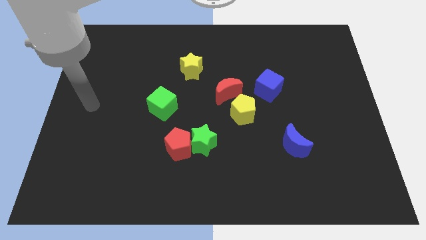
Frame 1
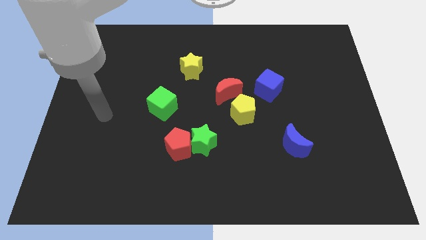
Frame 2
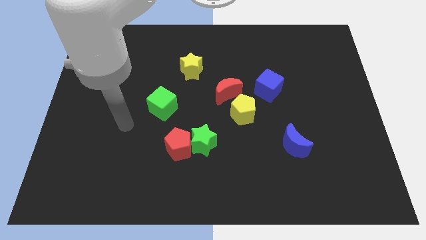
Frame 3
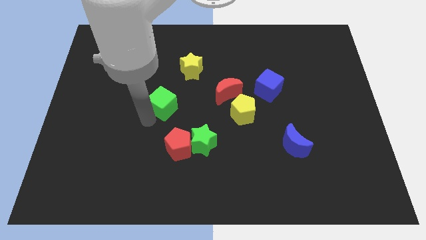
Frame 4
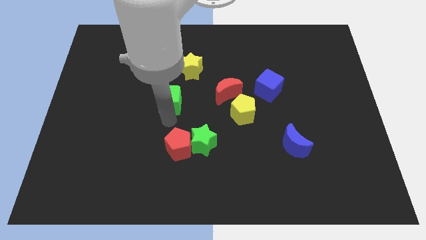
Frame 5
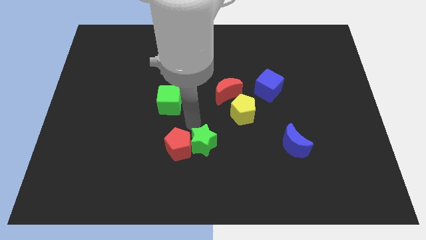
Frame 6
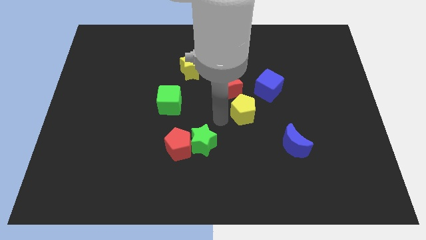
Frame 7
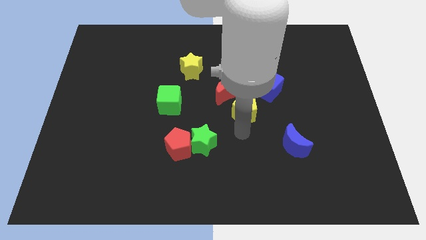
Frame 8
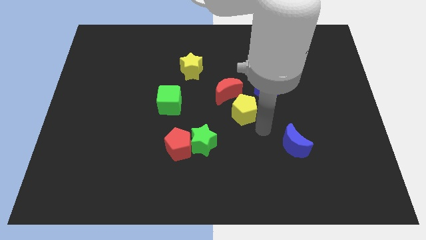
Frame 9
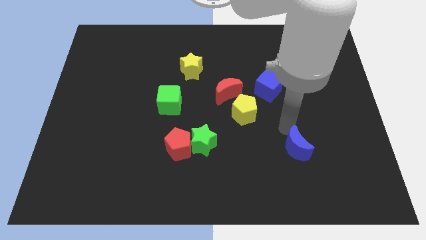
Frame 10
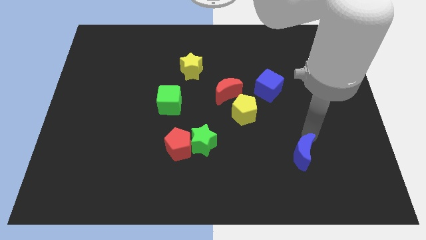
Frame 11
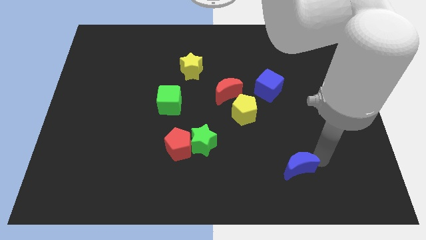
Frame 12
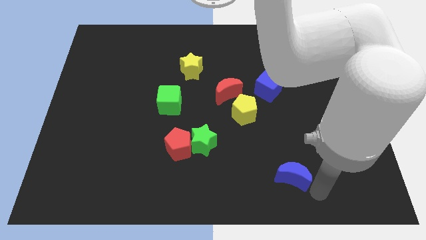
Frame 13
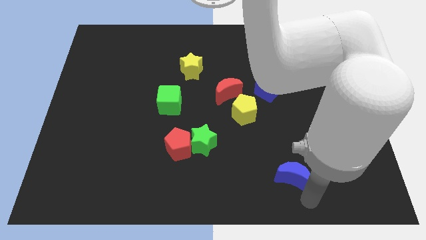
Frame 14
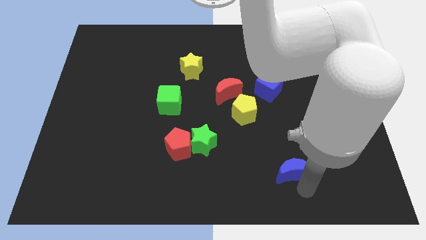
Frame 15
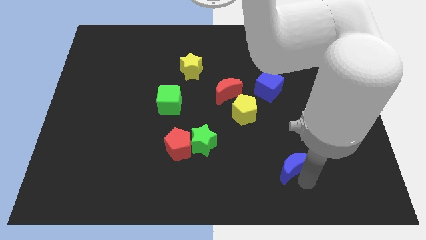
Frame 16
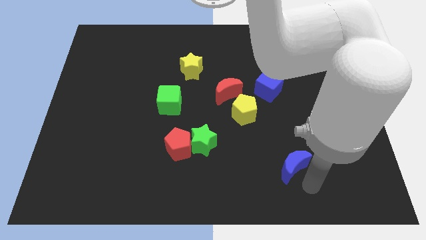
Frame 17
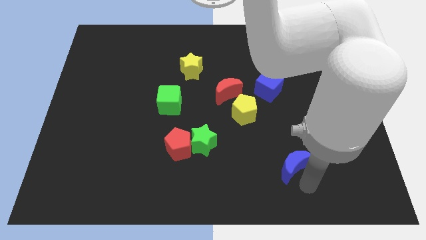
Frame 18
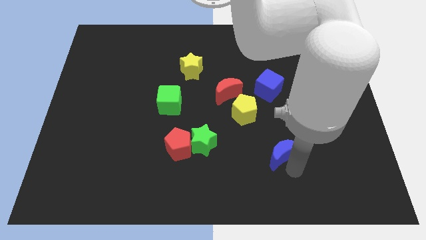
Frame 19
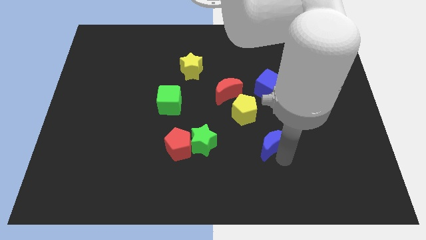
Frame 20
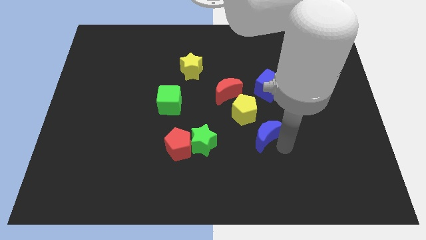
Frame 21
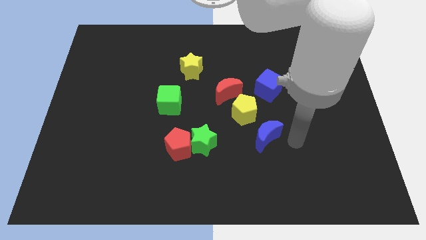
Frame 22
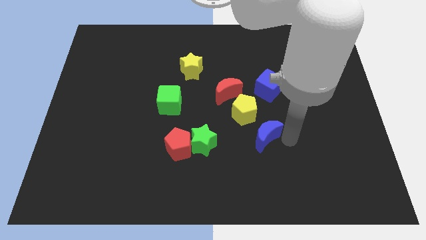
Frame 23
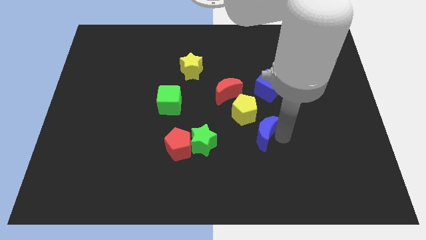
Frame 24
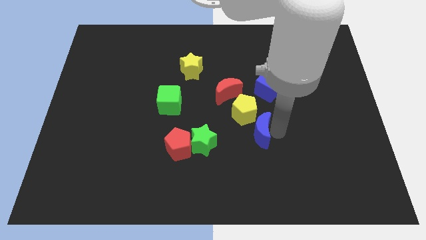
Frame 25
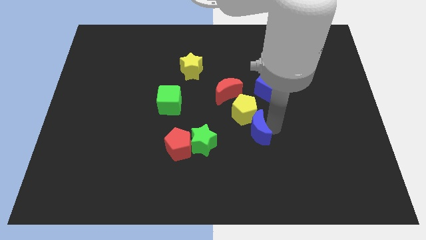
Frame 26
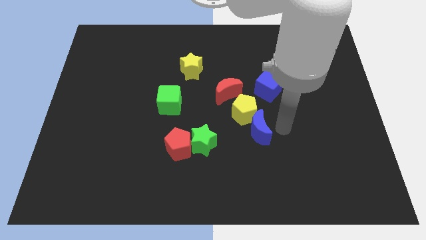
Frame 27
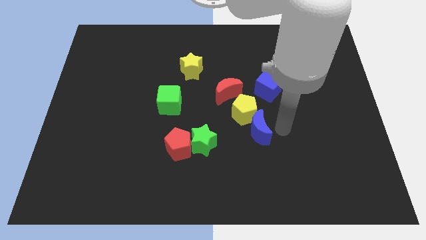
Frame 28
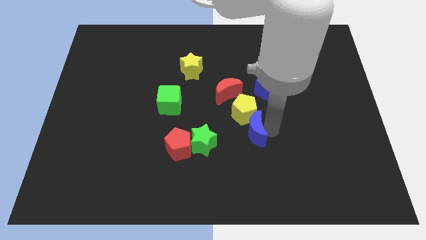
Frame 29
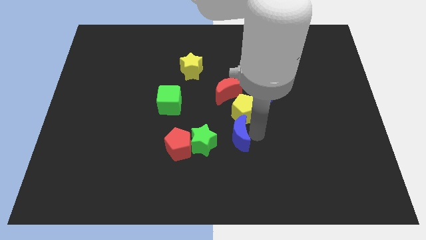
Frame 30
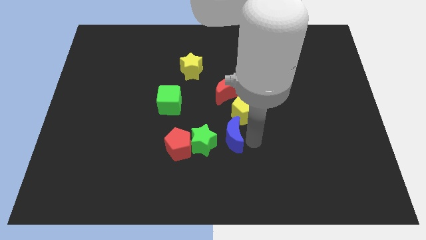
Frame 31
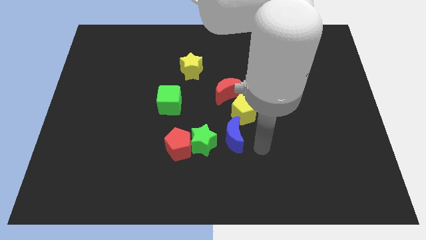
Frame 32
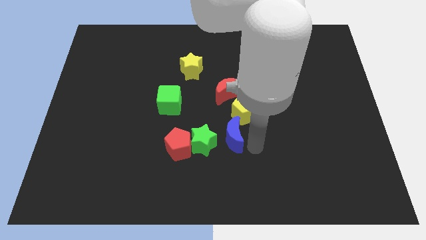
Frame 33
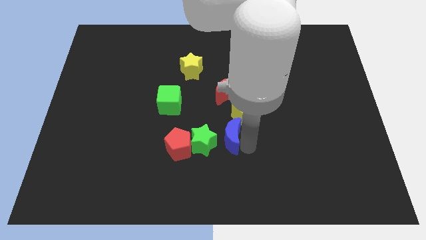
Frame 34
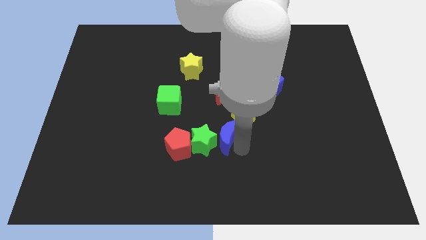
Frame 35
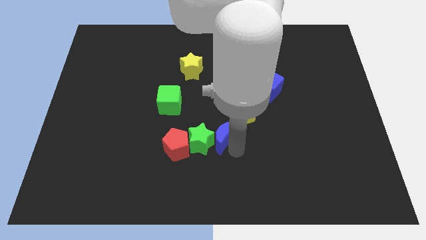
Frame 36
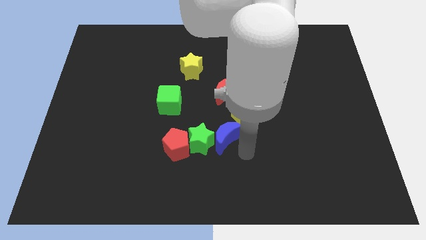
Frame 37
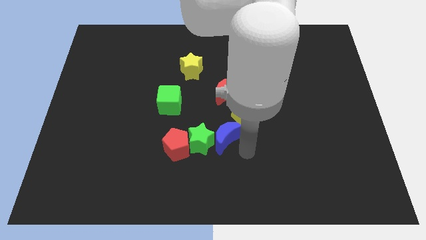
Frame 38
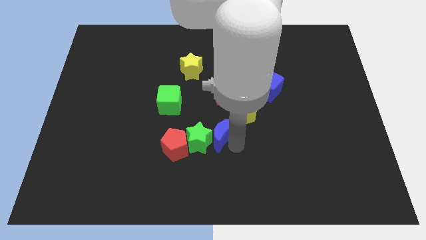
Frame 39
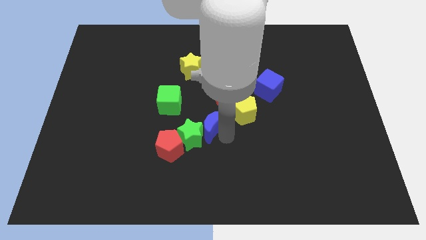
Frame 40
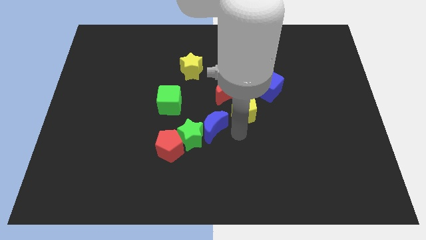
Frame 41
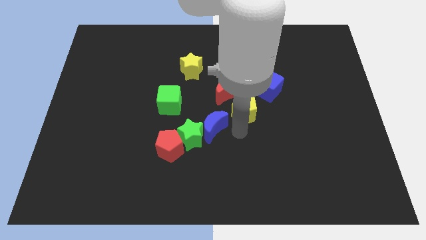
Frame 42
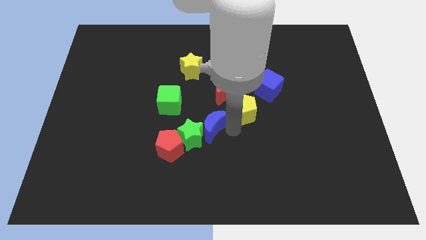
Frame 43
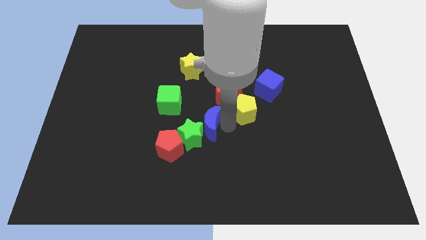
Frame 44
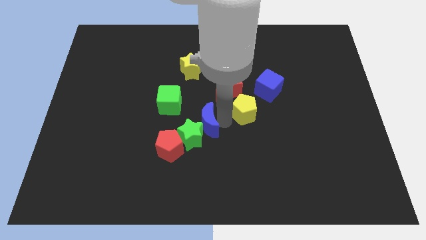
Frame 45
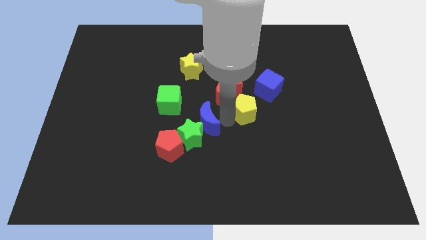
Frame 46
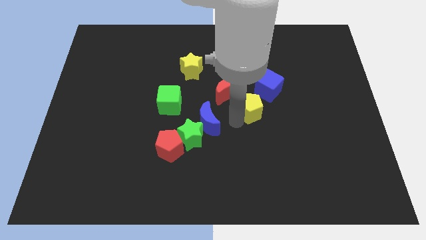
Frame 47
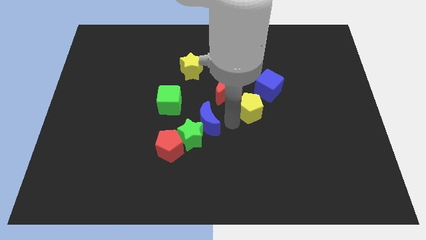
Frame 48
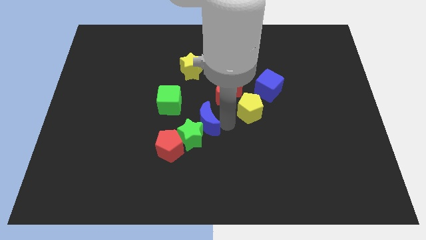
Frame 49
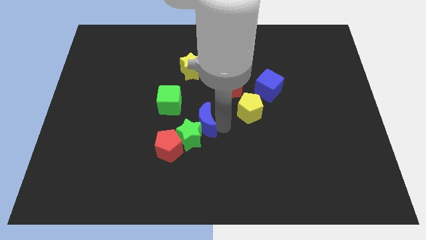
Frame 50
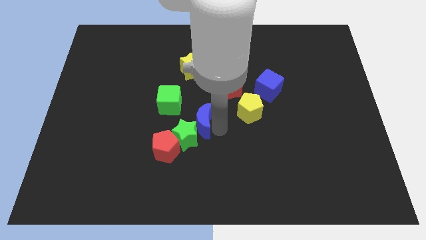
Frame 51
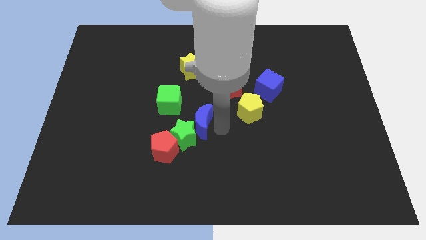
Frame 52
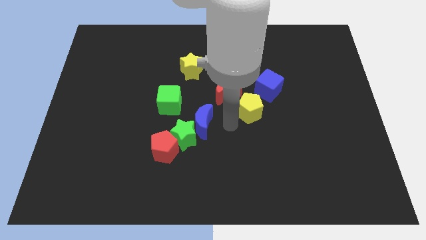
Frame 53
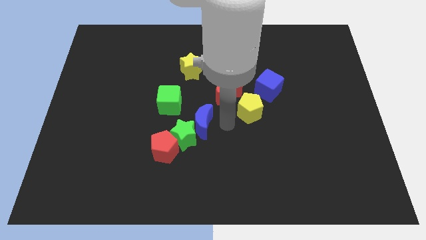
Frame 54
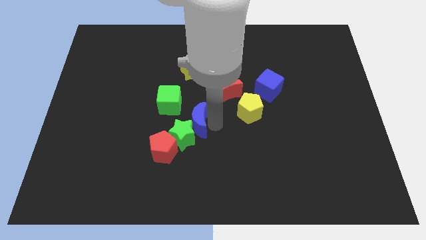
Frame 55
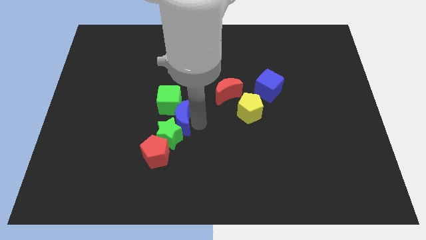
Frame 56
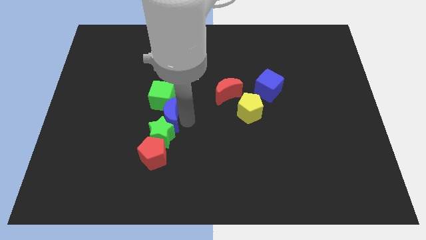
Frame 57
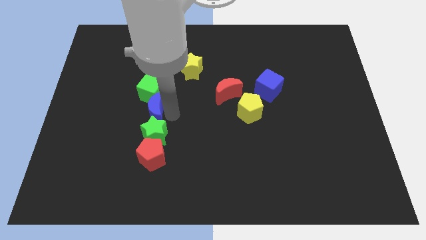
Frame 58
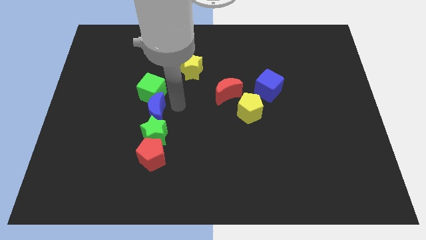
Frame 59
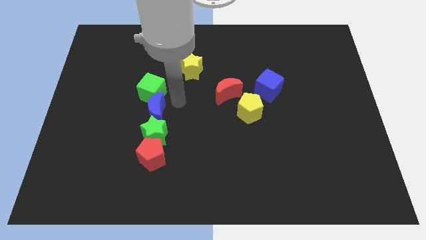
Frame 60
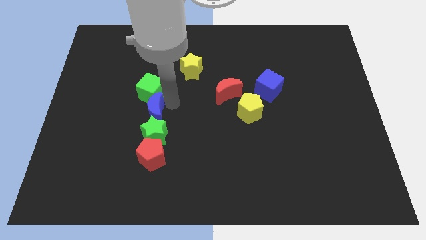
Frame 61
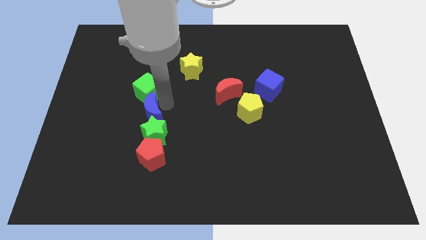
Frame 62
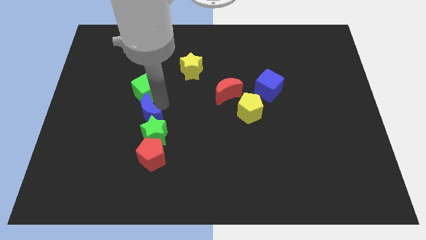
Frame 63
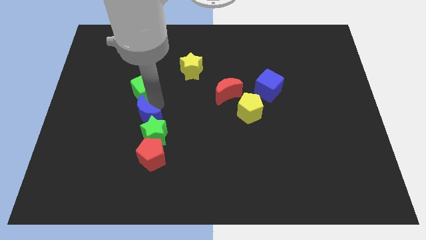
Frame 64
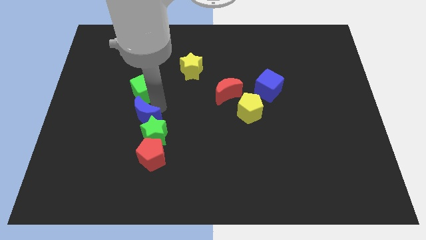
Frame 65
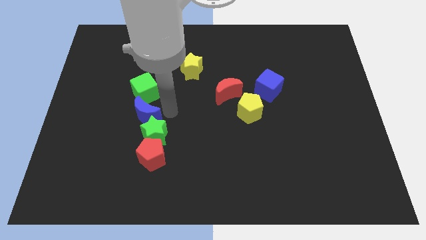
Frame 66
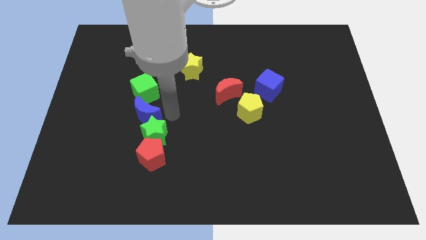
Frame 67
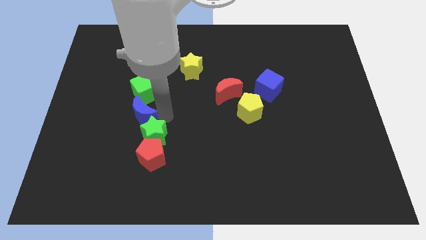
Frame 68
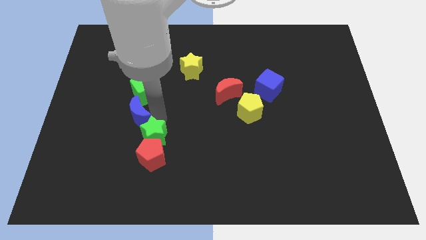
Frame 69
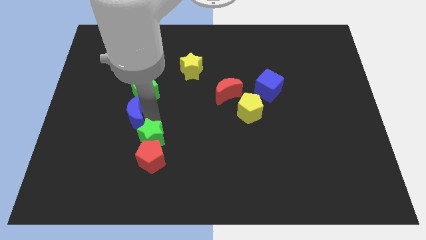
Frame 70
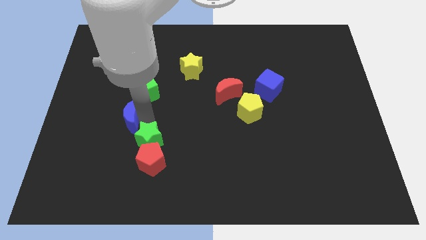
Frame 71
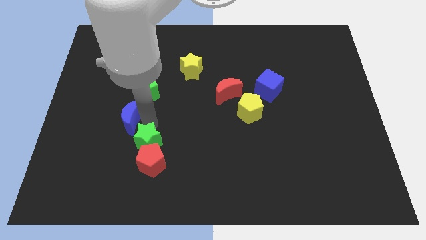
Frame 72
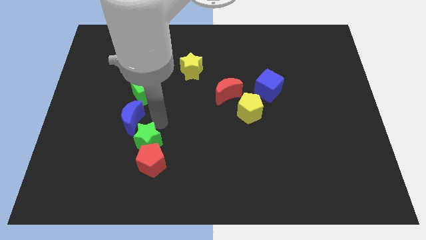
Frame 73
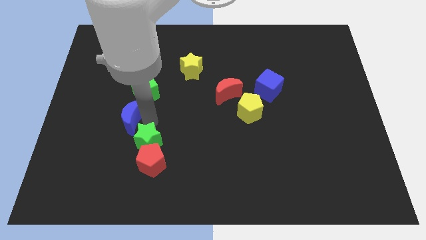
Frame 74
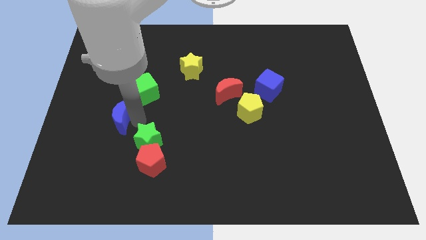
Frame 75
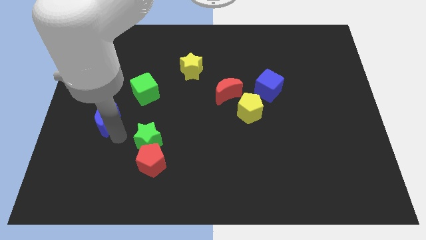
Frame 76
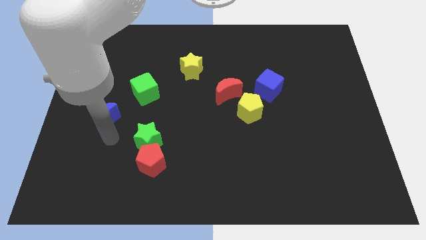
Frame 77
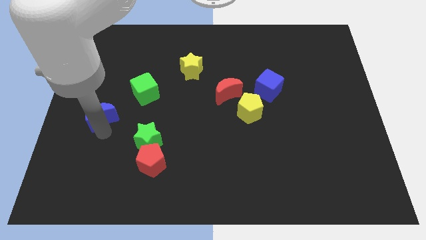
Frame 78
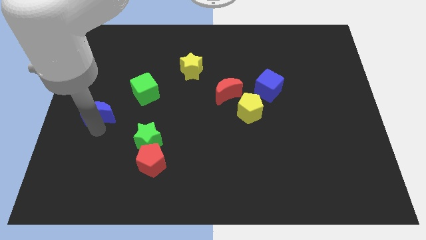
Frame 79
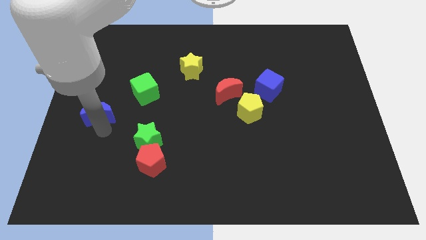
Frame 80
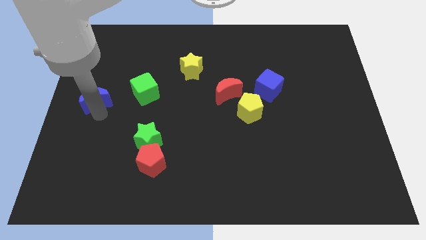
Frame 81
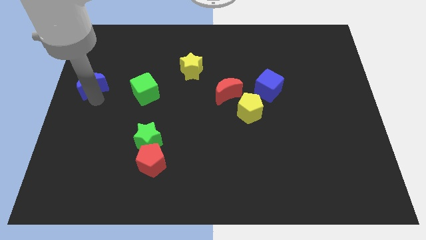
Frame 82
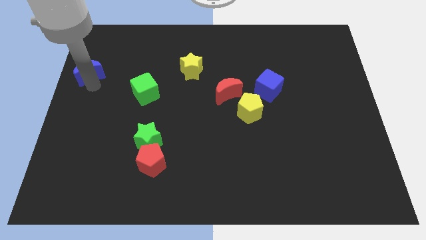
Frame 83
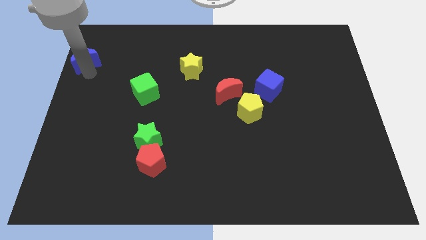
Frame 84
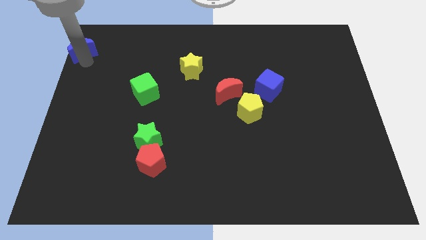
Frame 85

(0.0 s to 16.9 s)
move the blue moon to the top left of the board
